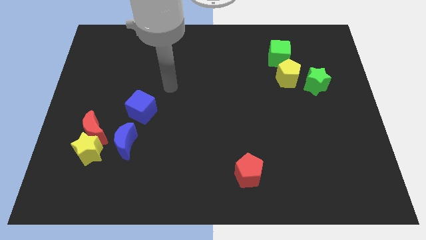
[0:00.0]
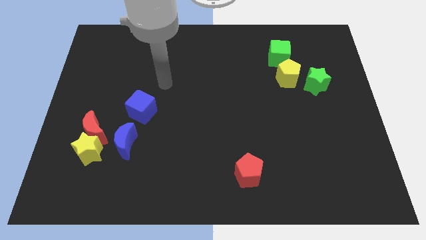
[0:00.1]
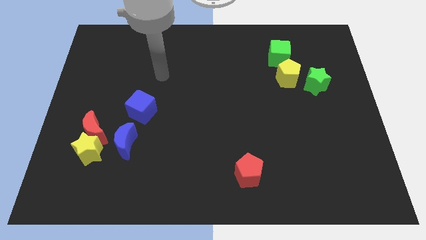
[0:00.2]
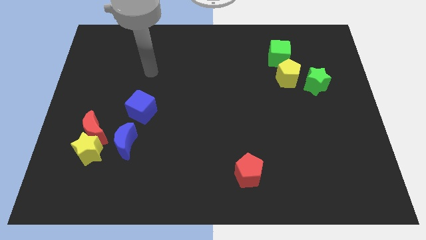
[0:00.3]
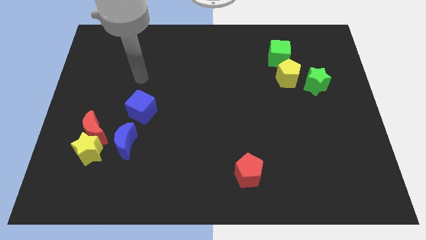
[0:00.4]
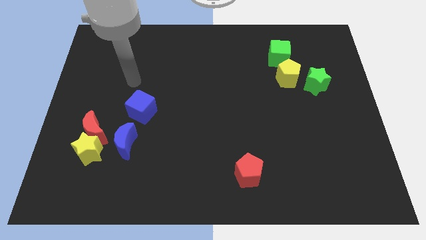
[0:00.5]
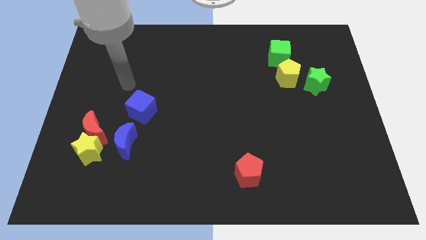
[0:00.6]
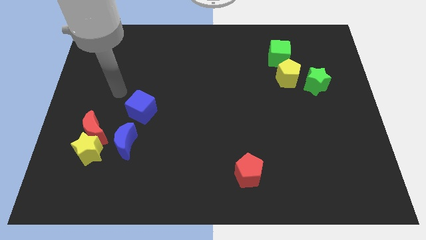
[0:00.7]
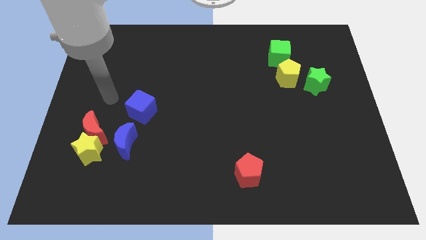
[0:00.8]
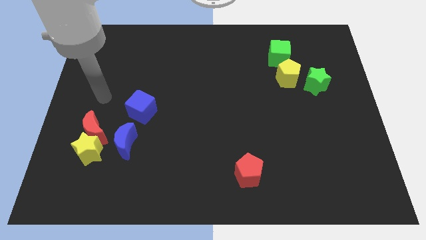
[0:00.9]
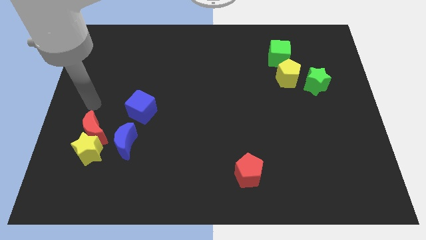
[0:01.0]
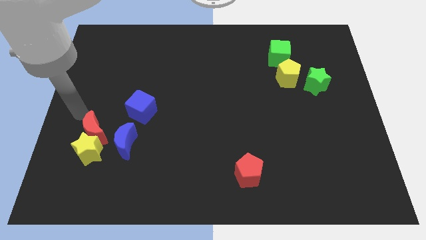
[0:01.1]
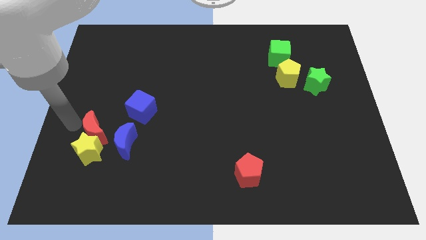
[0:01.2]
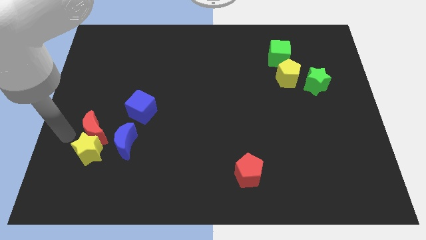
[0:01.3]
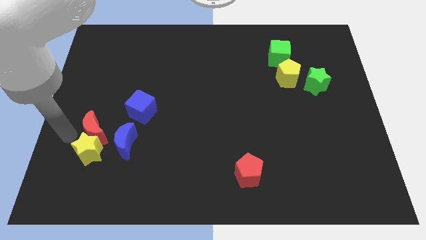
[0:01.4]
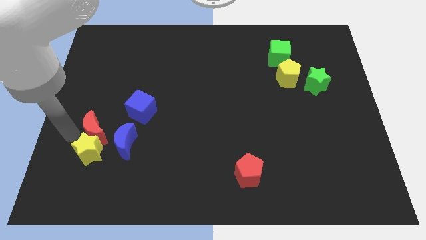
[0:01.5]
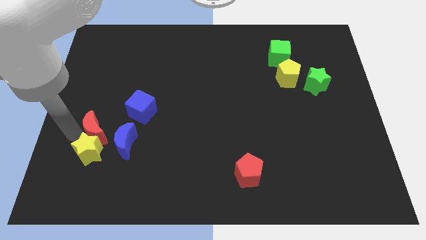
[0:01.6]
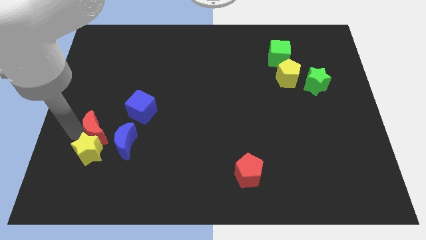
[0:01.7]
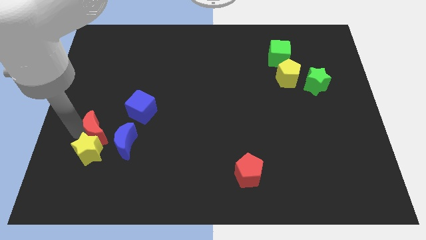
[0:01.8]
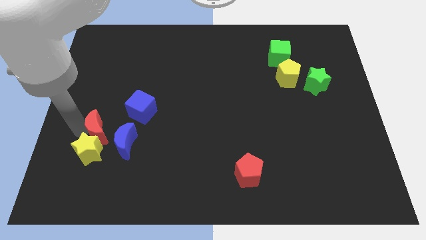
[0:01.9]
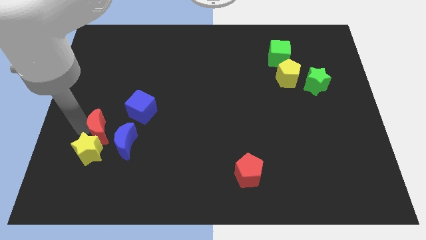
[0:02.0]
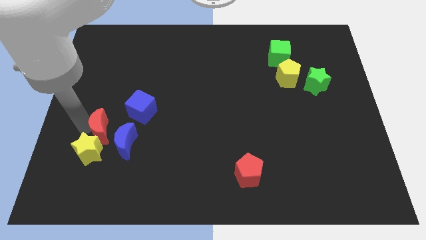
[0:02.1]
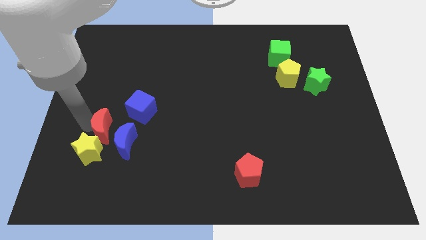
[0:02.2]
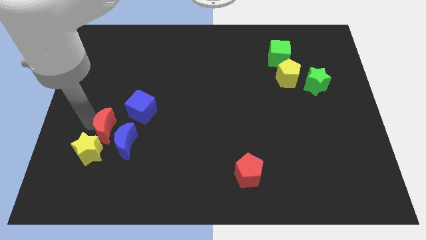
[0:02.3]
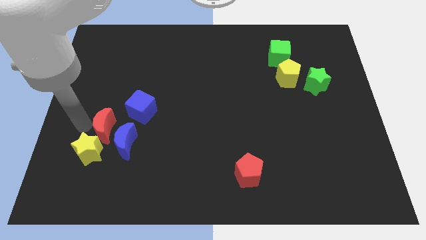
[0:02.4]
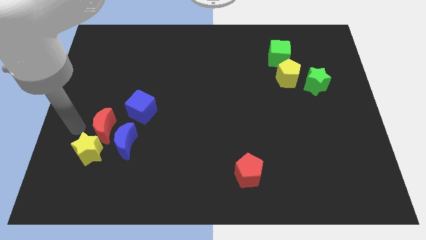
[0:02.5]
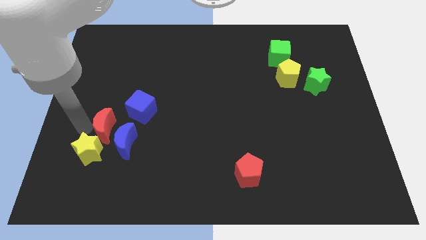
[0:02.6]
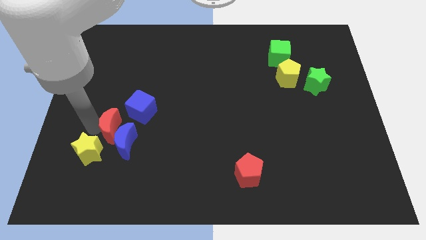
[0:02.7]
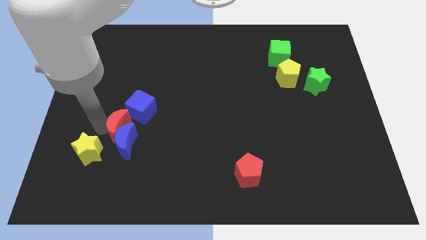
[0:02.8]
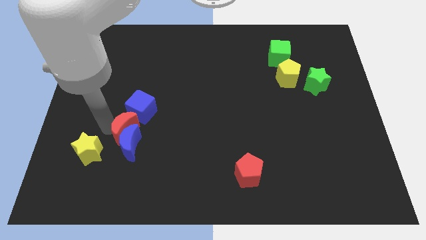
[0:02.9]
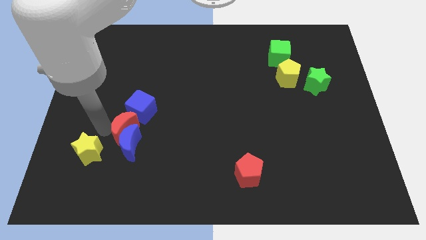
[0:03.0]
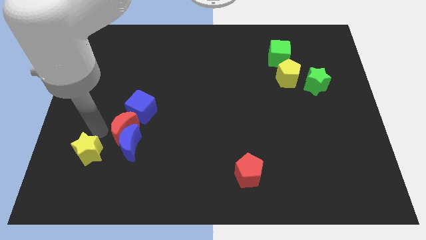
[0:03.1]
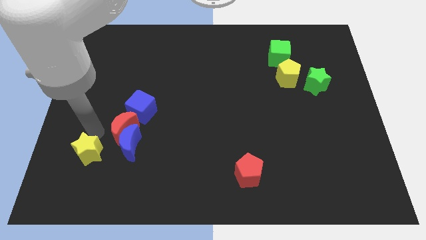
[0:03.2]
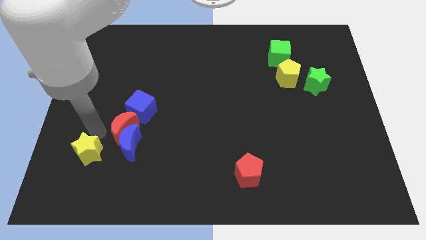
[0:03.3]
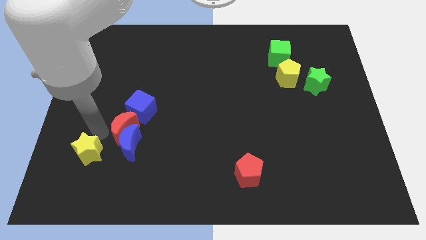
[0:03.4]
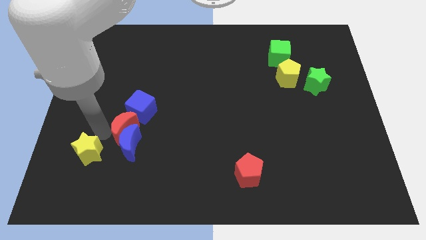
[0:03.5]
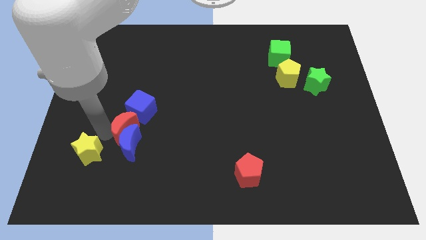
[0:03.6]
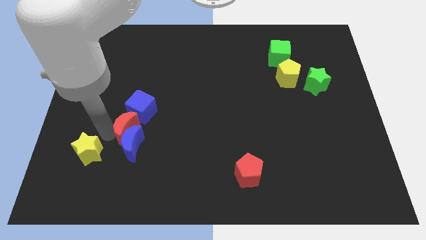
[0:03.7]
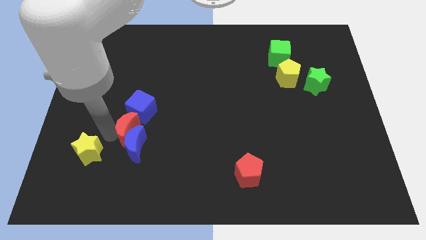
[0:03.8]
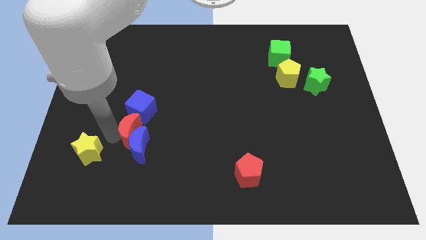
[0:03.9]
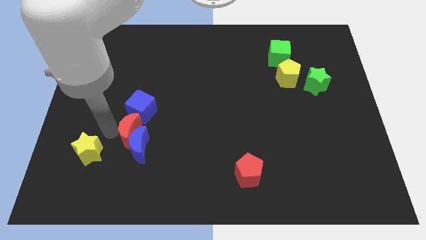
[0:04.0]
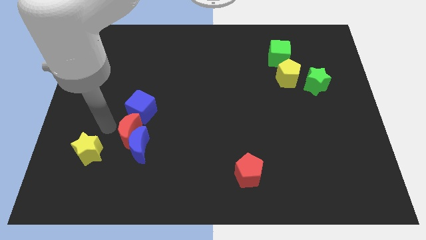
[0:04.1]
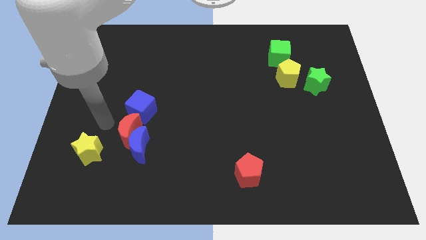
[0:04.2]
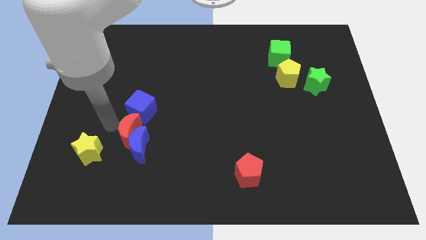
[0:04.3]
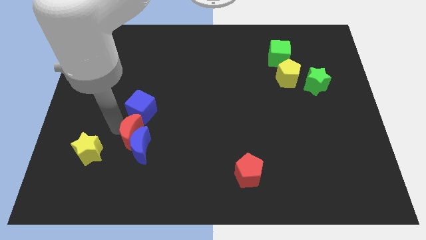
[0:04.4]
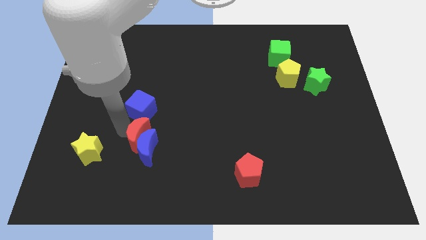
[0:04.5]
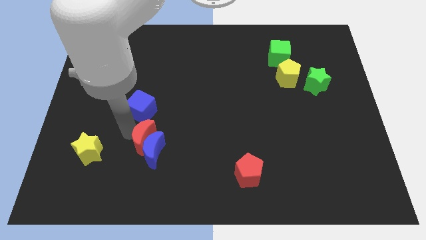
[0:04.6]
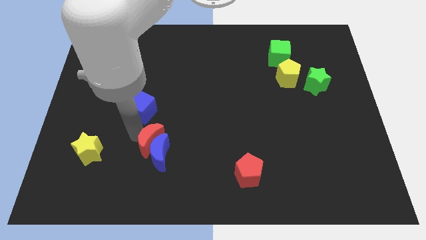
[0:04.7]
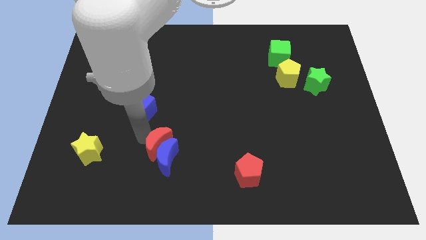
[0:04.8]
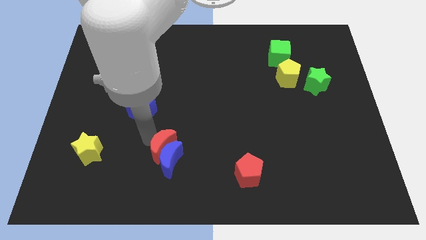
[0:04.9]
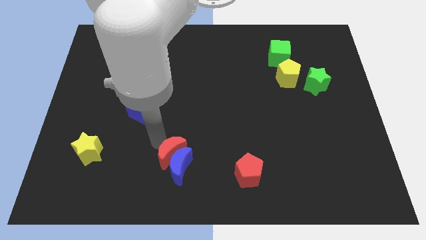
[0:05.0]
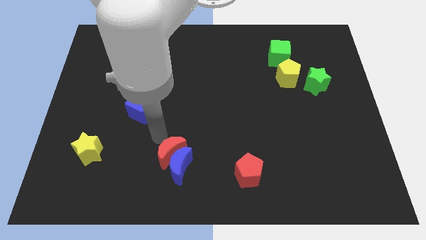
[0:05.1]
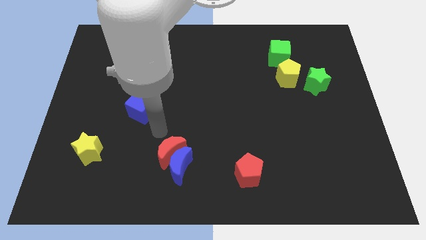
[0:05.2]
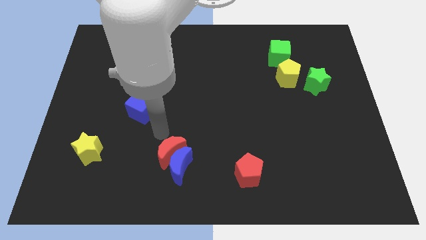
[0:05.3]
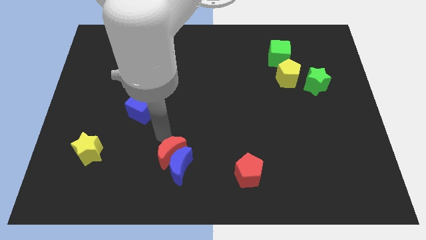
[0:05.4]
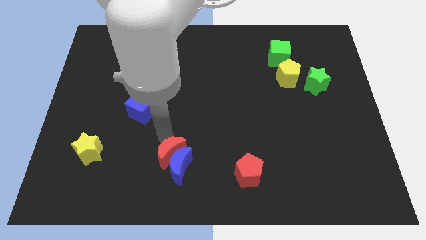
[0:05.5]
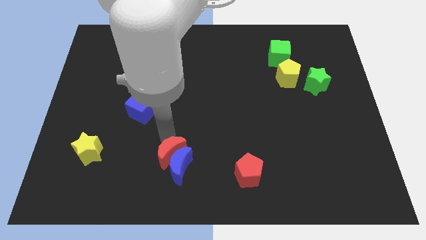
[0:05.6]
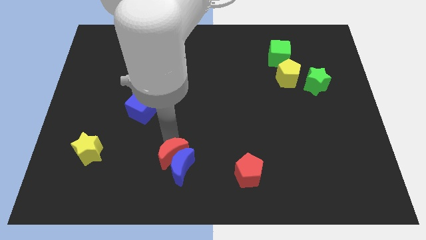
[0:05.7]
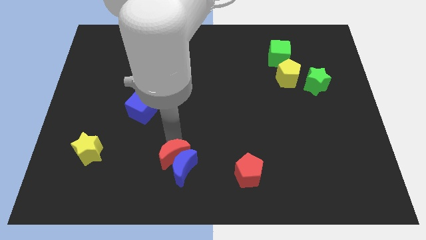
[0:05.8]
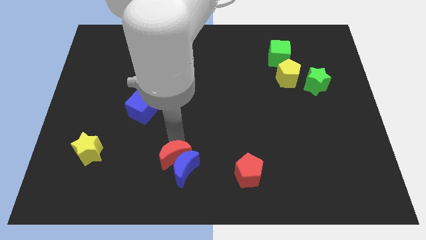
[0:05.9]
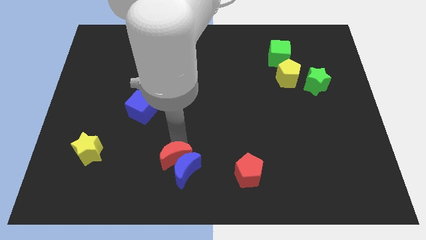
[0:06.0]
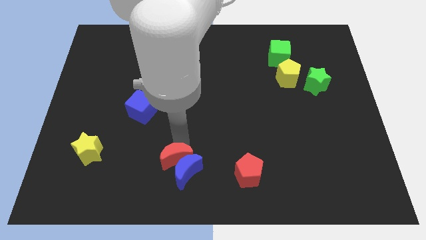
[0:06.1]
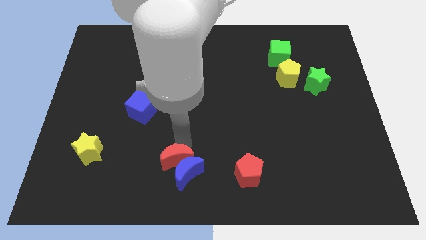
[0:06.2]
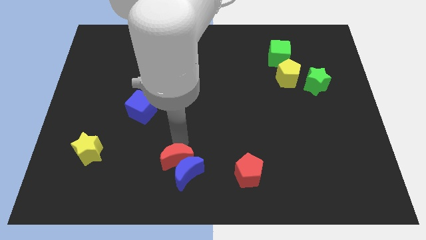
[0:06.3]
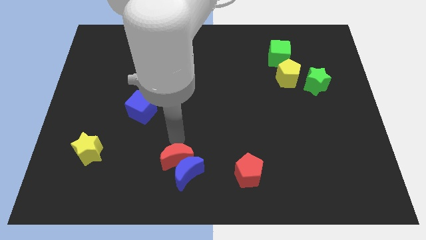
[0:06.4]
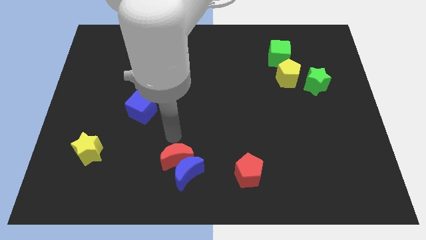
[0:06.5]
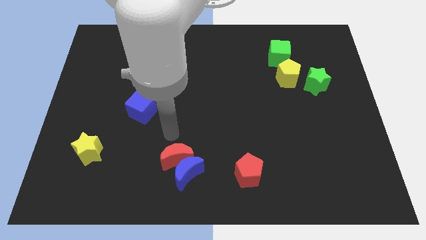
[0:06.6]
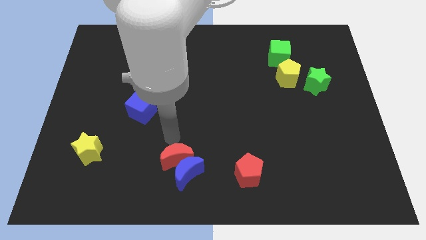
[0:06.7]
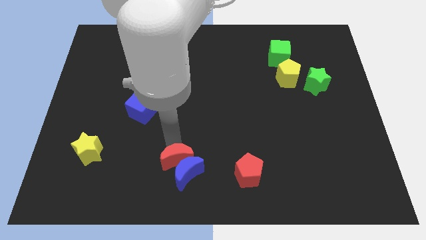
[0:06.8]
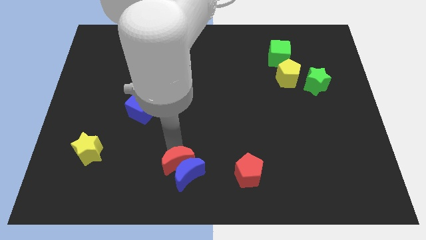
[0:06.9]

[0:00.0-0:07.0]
put the red moon to the bottom side
